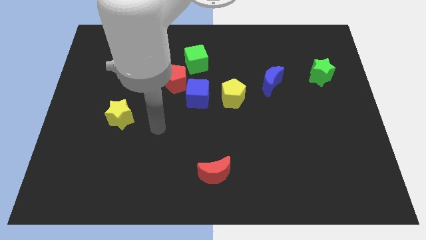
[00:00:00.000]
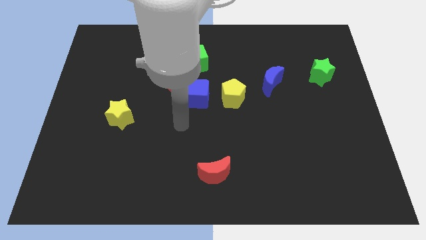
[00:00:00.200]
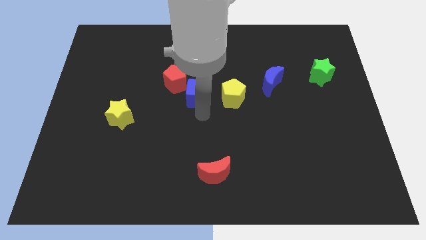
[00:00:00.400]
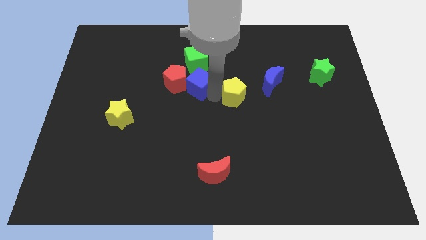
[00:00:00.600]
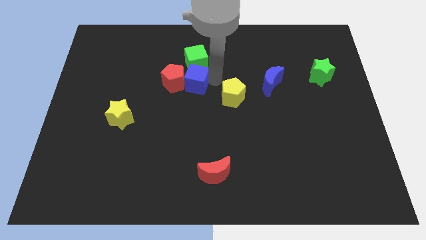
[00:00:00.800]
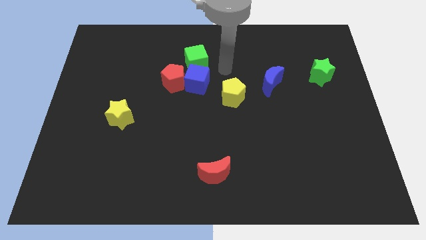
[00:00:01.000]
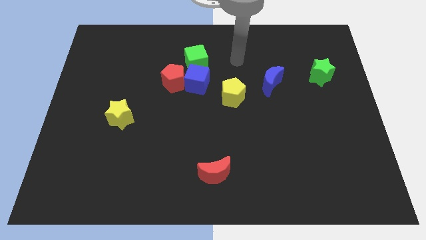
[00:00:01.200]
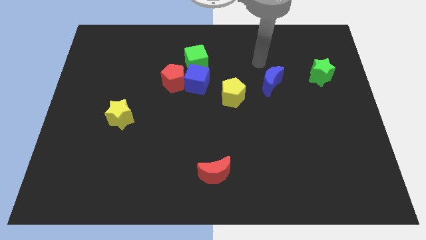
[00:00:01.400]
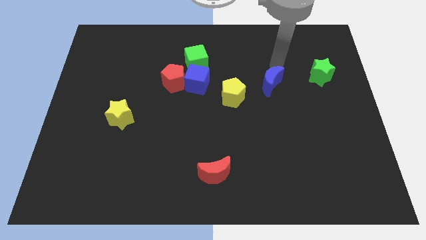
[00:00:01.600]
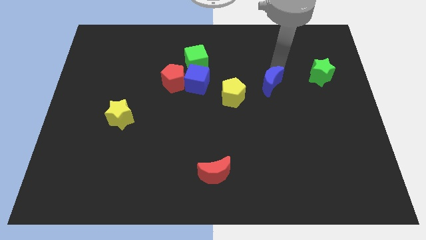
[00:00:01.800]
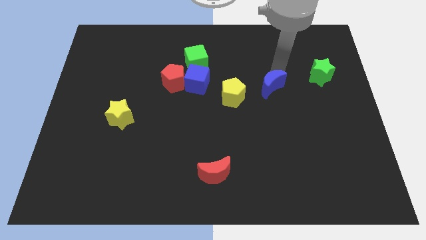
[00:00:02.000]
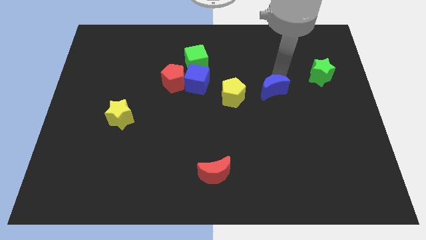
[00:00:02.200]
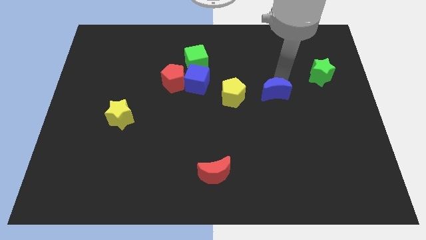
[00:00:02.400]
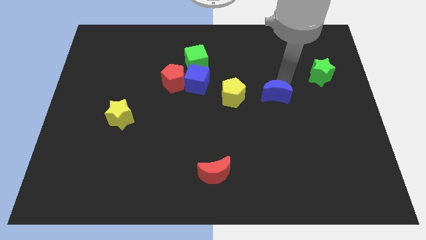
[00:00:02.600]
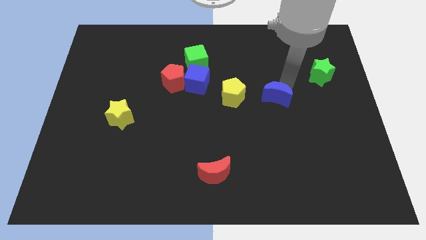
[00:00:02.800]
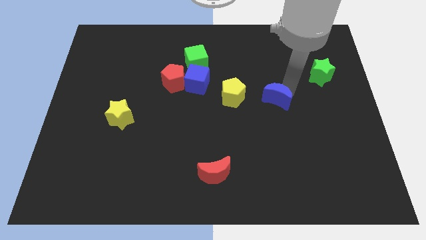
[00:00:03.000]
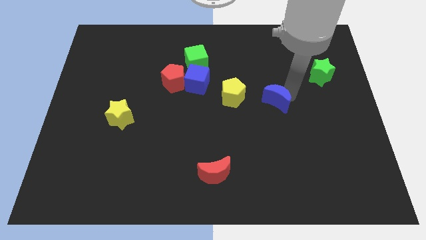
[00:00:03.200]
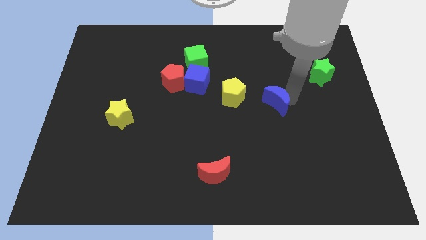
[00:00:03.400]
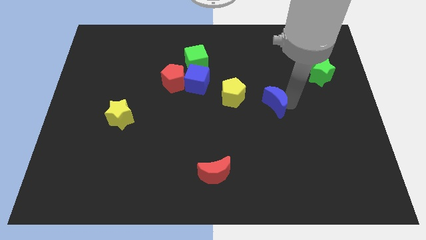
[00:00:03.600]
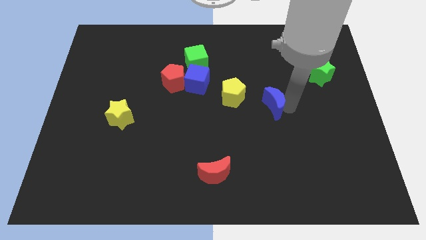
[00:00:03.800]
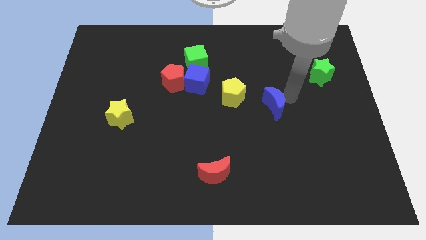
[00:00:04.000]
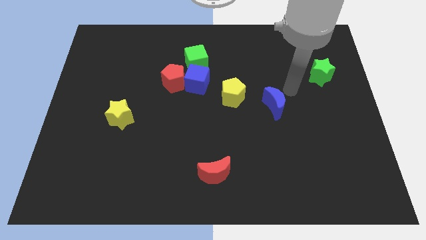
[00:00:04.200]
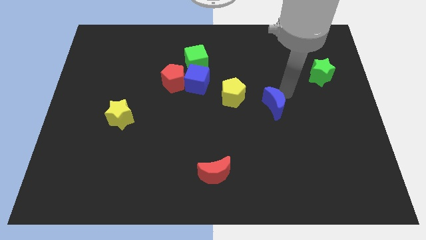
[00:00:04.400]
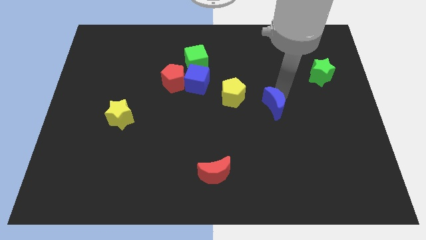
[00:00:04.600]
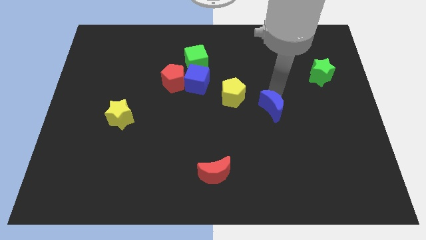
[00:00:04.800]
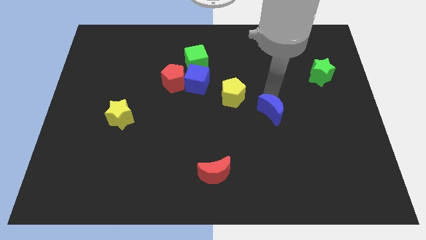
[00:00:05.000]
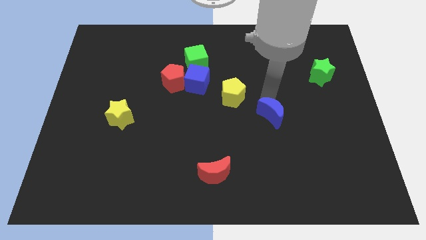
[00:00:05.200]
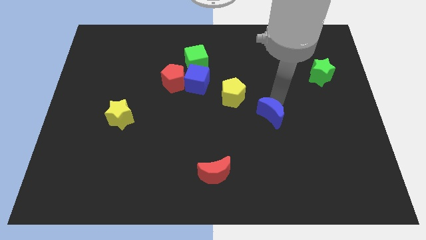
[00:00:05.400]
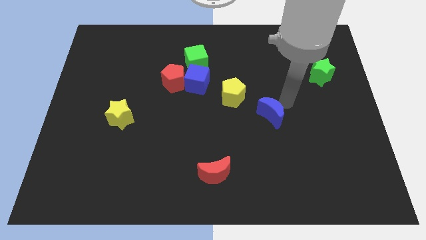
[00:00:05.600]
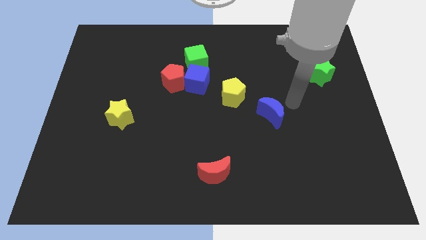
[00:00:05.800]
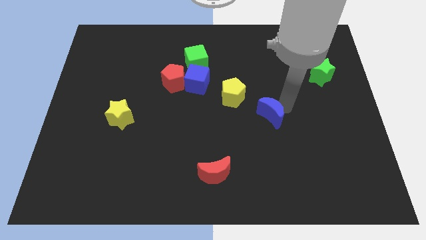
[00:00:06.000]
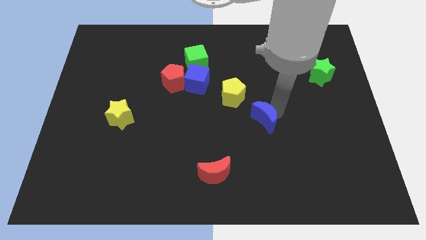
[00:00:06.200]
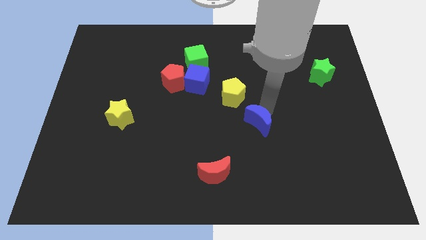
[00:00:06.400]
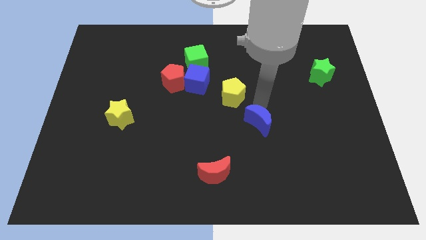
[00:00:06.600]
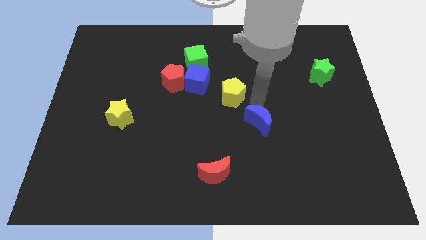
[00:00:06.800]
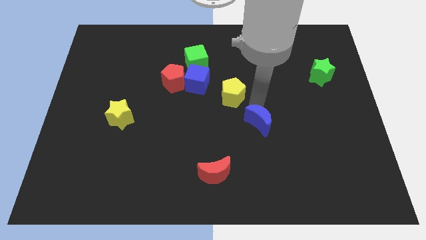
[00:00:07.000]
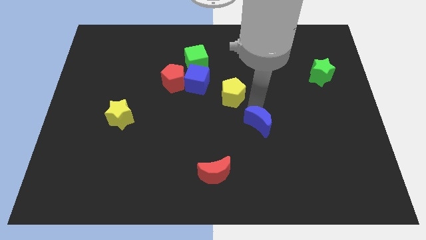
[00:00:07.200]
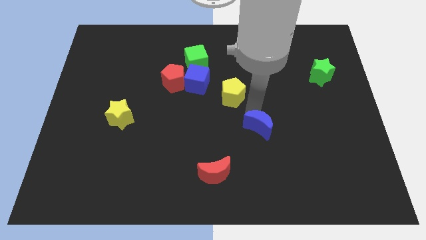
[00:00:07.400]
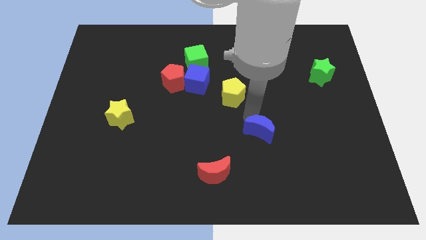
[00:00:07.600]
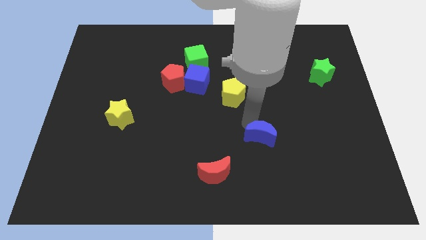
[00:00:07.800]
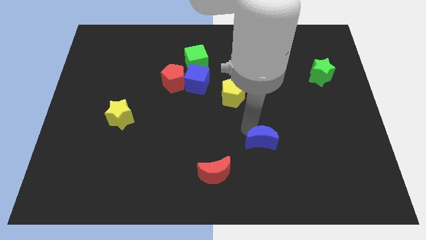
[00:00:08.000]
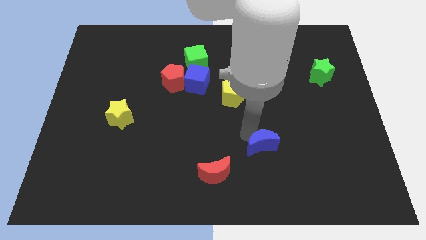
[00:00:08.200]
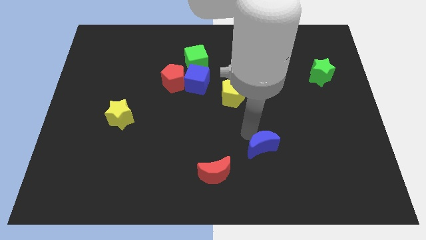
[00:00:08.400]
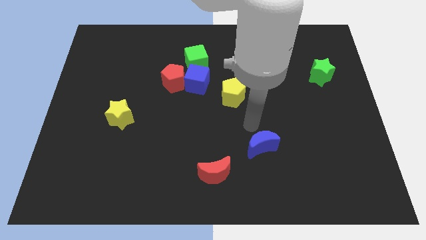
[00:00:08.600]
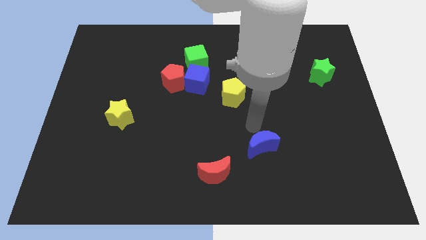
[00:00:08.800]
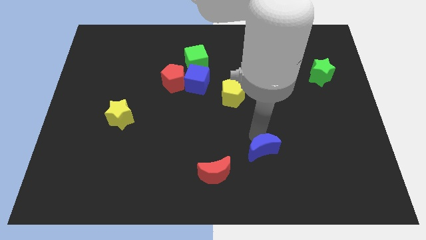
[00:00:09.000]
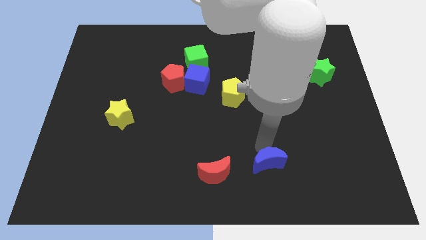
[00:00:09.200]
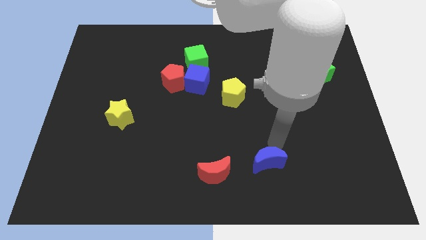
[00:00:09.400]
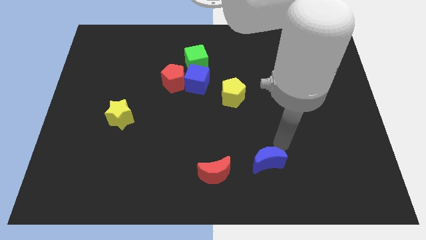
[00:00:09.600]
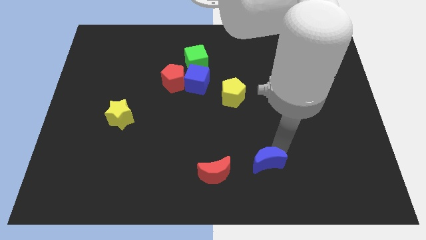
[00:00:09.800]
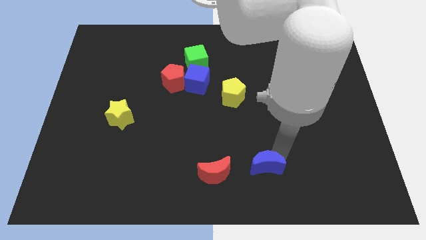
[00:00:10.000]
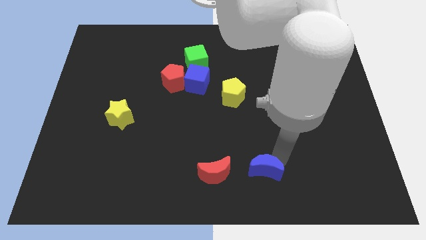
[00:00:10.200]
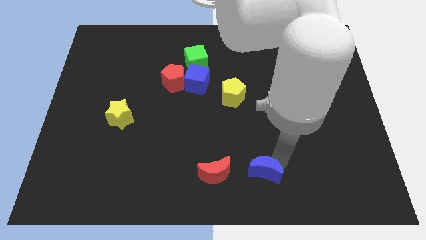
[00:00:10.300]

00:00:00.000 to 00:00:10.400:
put the blue moon to the bottom

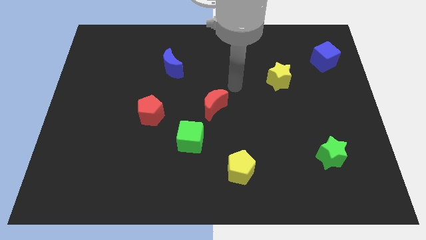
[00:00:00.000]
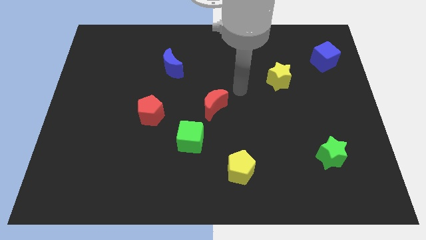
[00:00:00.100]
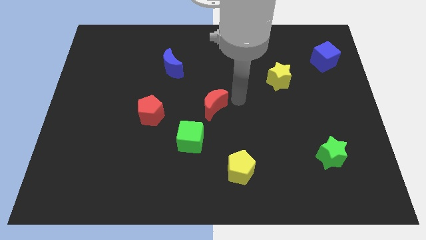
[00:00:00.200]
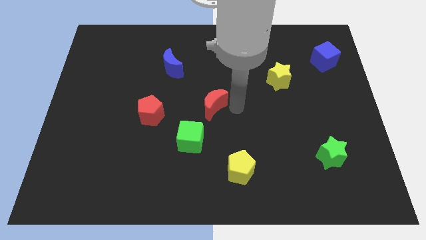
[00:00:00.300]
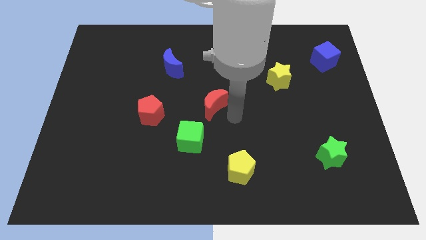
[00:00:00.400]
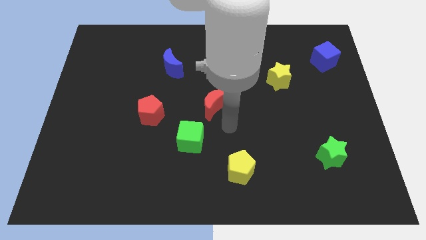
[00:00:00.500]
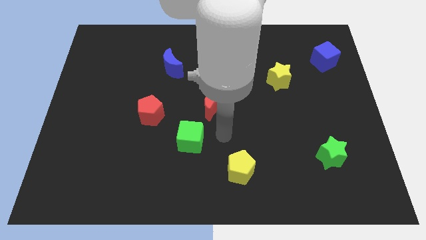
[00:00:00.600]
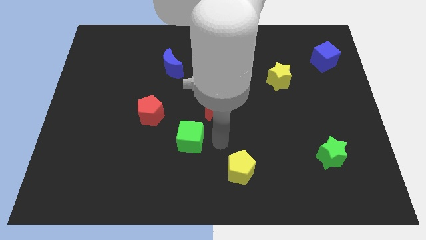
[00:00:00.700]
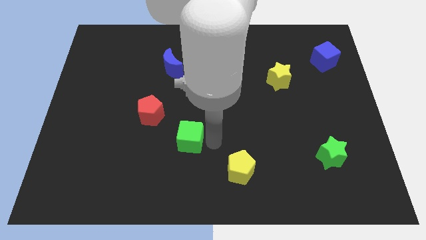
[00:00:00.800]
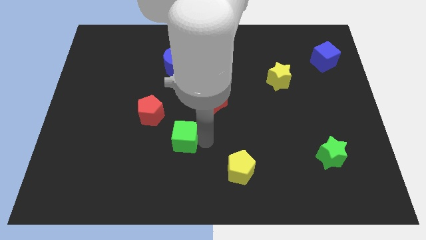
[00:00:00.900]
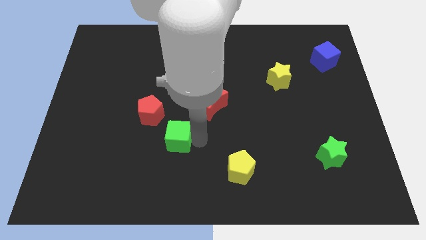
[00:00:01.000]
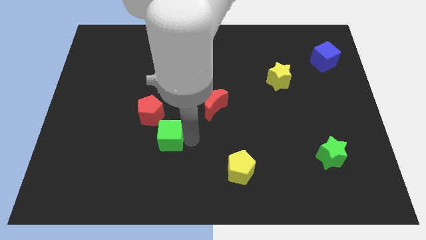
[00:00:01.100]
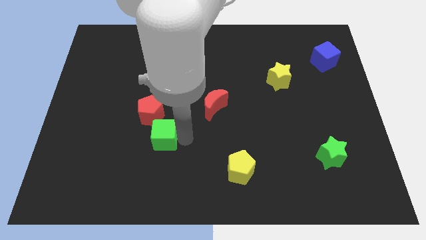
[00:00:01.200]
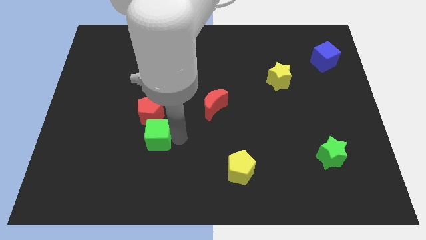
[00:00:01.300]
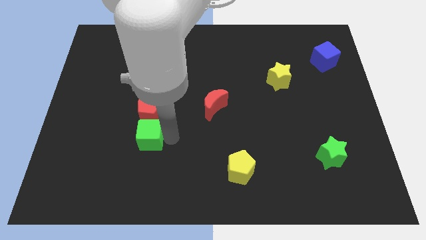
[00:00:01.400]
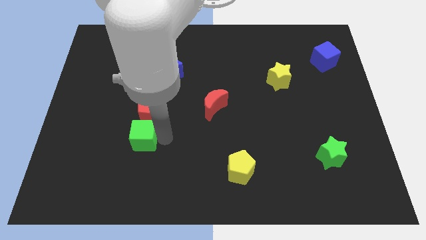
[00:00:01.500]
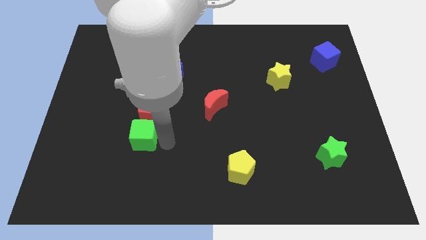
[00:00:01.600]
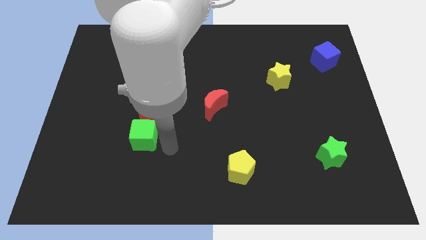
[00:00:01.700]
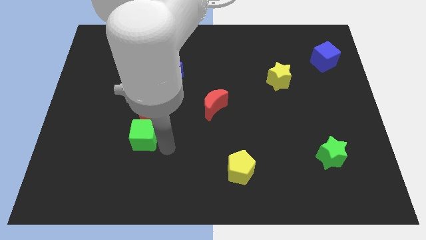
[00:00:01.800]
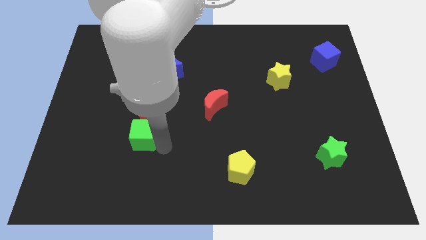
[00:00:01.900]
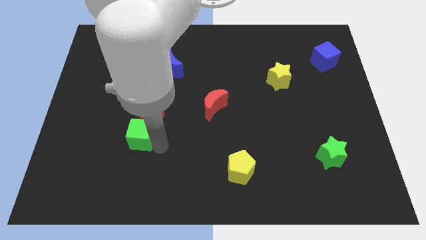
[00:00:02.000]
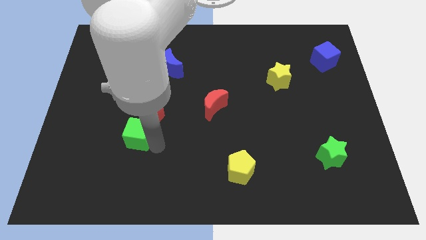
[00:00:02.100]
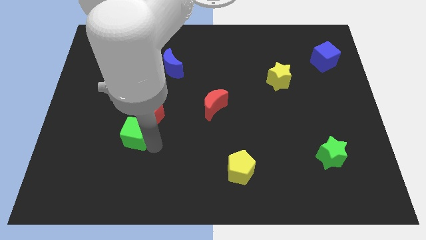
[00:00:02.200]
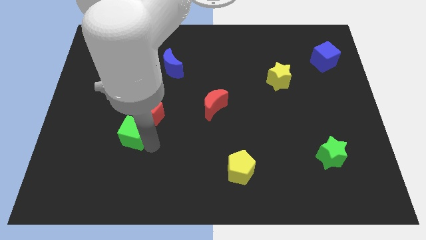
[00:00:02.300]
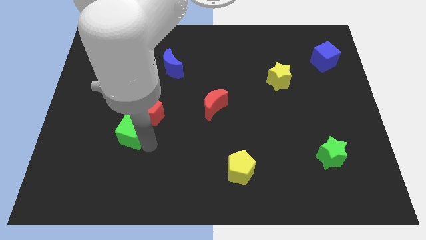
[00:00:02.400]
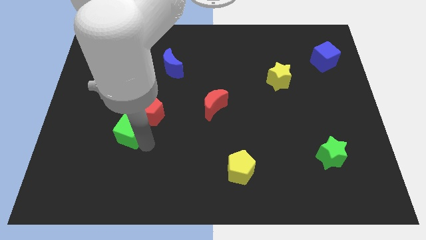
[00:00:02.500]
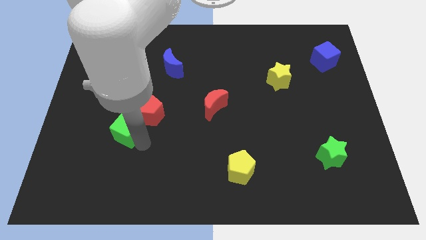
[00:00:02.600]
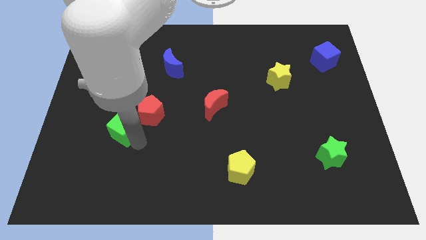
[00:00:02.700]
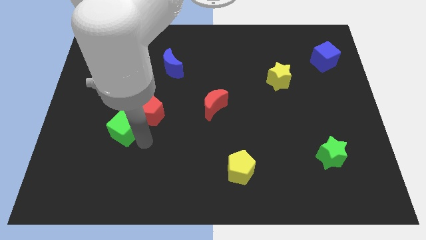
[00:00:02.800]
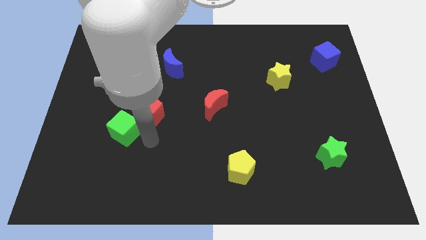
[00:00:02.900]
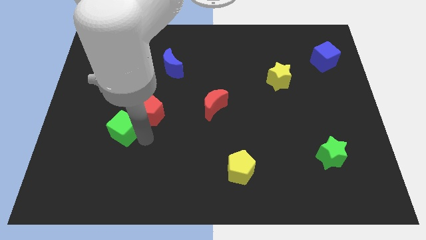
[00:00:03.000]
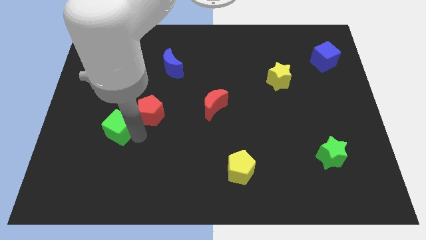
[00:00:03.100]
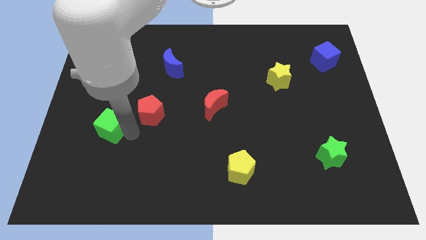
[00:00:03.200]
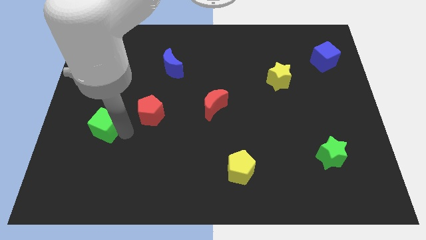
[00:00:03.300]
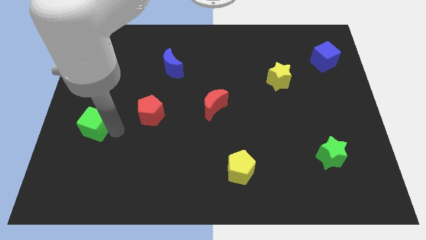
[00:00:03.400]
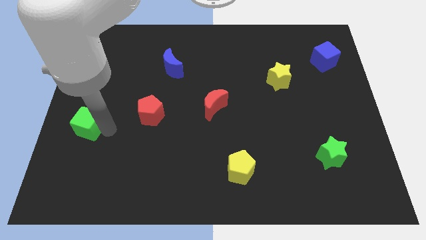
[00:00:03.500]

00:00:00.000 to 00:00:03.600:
put the green cube to the left side of the board
